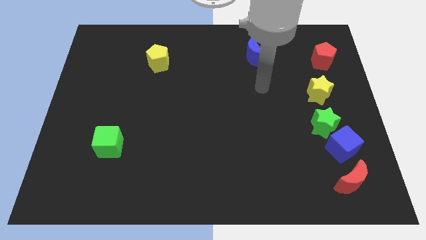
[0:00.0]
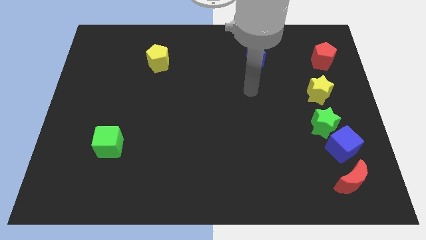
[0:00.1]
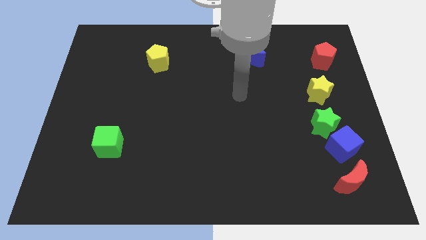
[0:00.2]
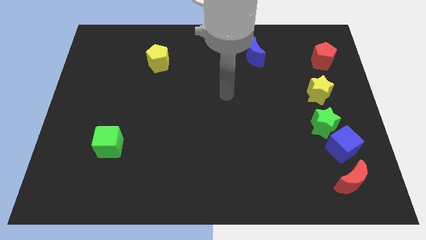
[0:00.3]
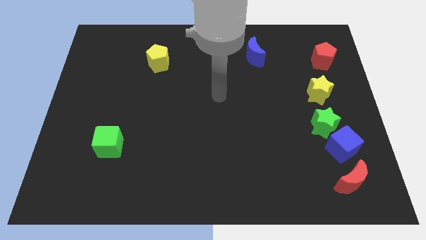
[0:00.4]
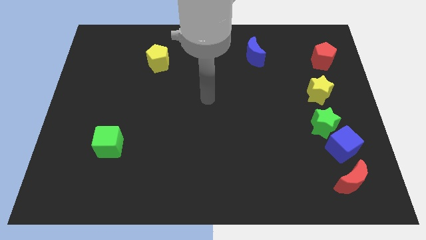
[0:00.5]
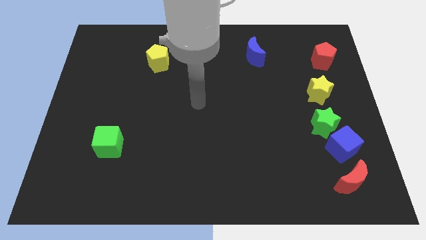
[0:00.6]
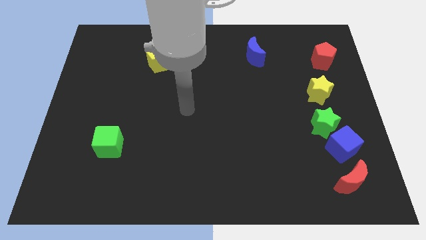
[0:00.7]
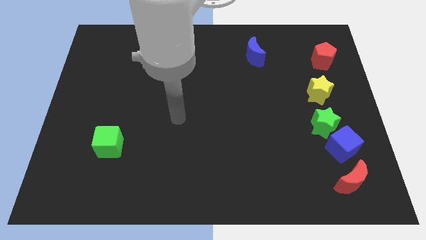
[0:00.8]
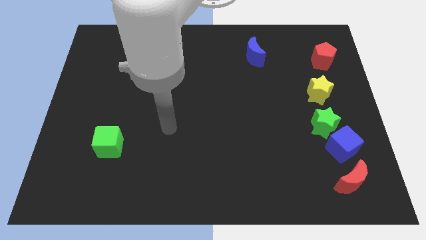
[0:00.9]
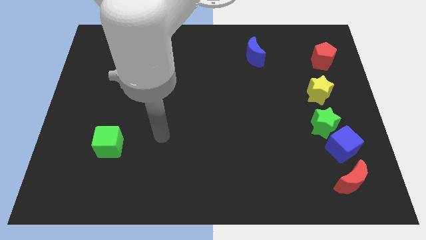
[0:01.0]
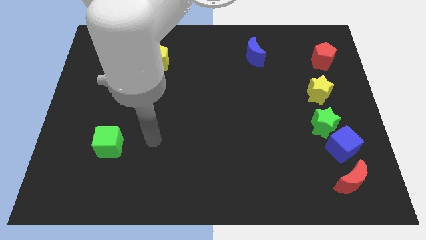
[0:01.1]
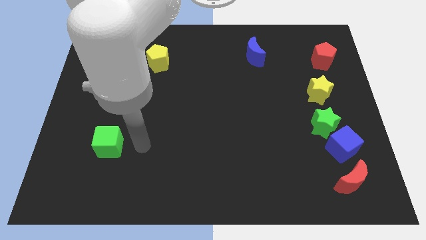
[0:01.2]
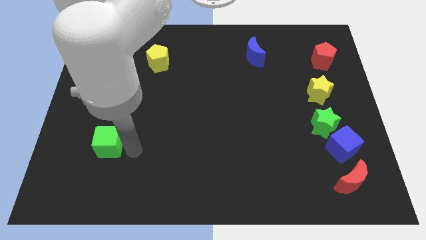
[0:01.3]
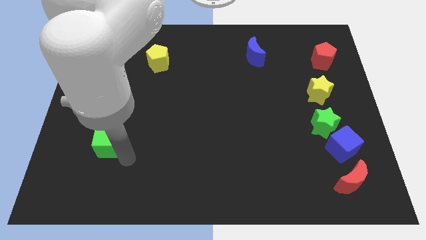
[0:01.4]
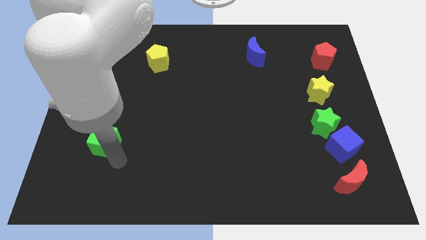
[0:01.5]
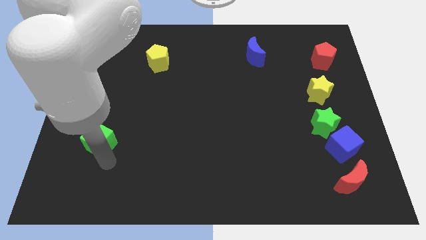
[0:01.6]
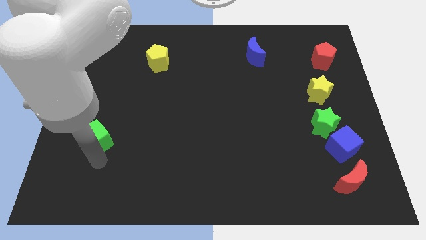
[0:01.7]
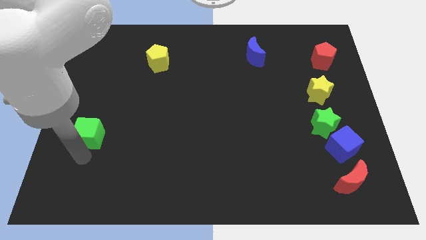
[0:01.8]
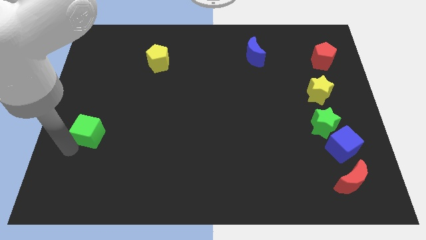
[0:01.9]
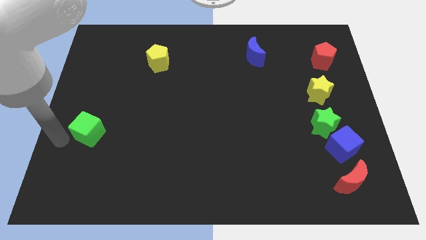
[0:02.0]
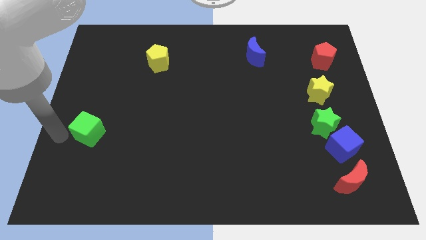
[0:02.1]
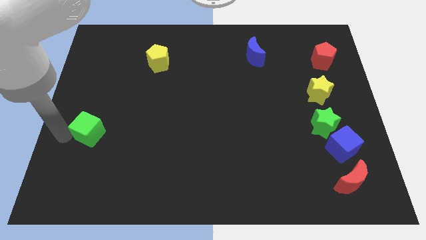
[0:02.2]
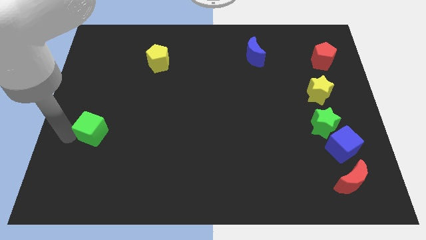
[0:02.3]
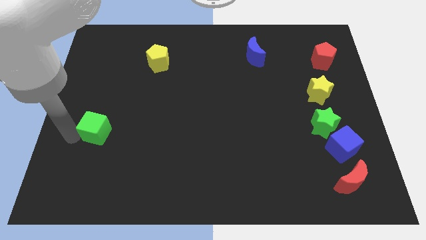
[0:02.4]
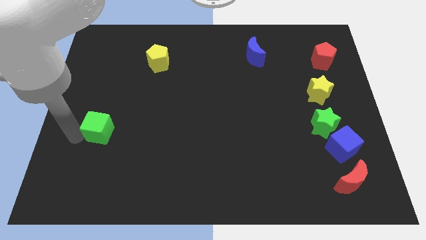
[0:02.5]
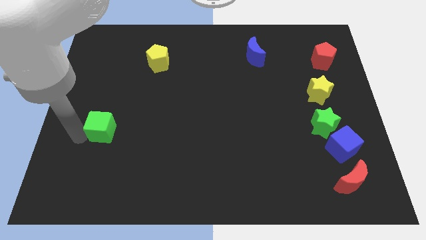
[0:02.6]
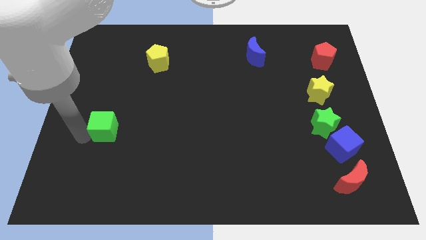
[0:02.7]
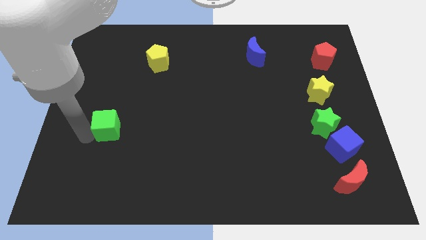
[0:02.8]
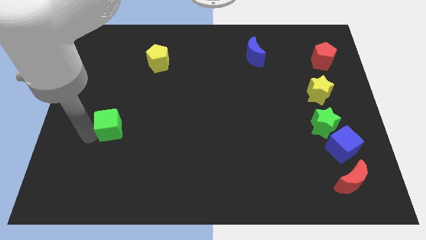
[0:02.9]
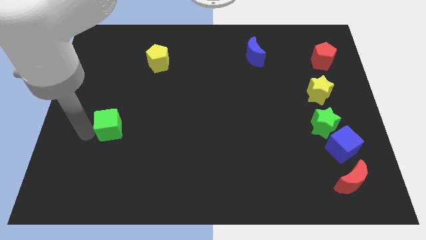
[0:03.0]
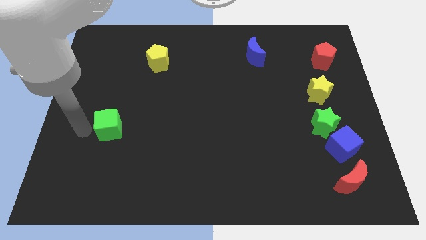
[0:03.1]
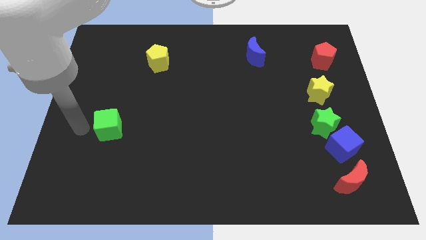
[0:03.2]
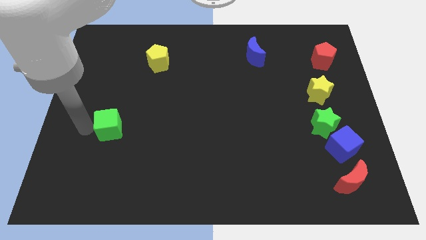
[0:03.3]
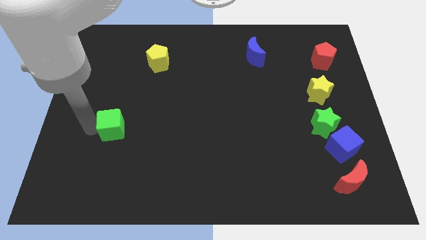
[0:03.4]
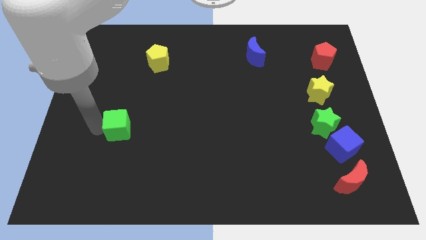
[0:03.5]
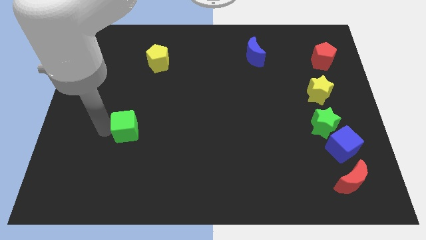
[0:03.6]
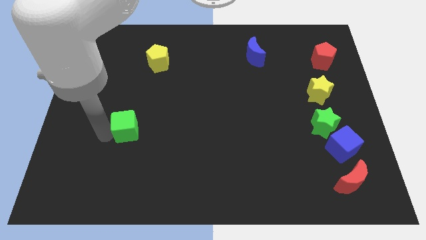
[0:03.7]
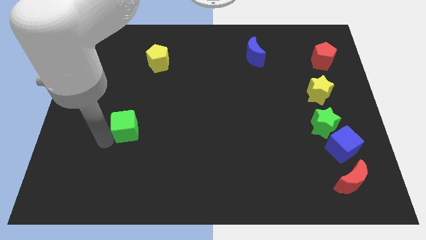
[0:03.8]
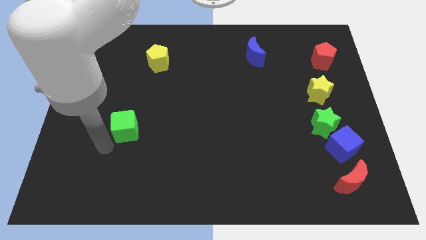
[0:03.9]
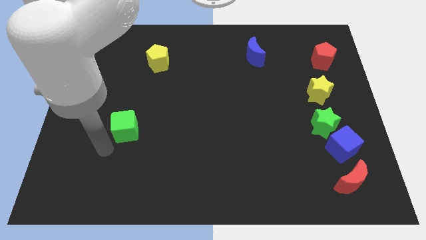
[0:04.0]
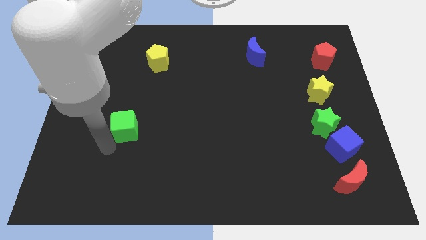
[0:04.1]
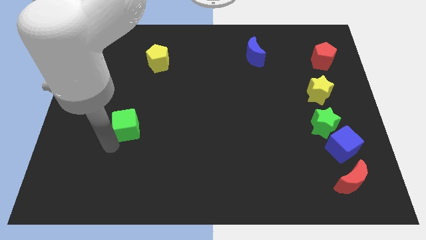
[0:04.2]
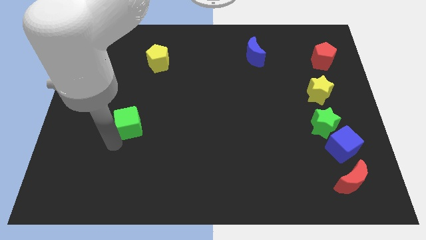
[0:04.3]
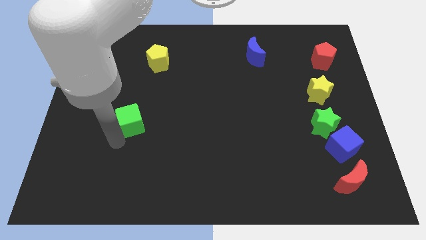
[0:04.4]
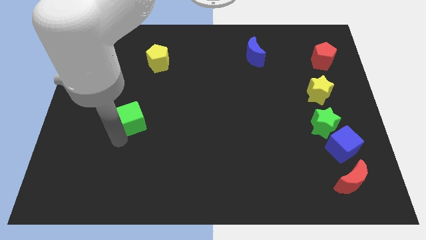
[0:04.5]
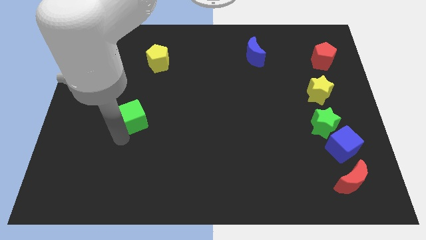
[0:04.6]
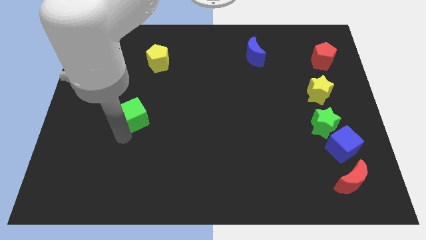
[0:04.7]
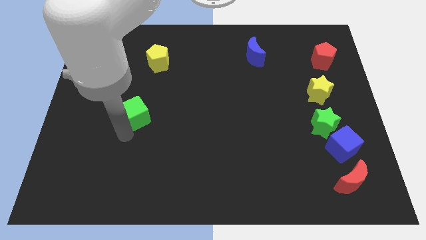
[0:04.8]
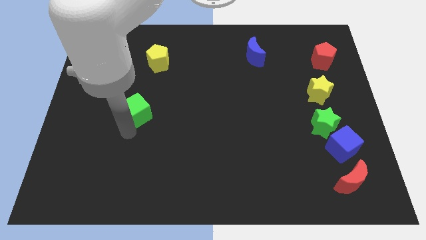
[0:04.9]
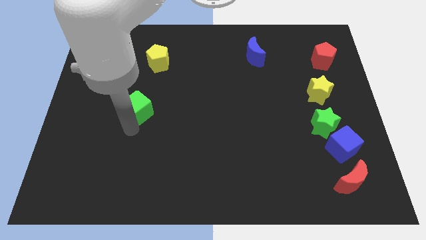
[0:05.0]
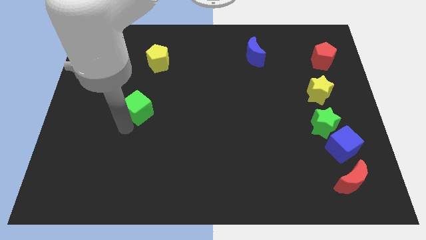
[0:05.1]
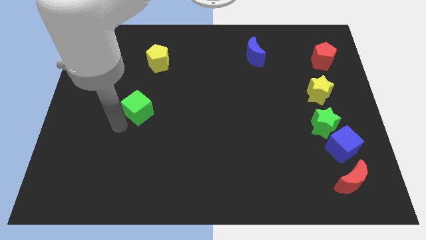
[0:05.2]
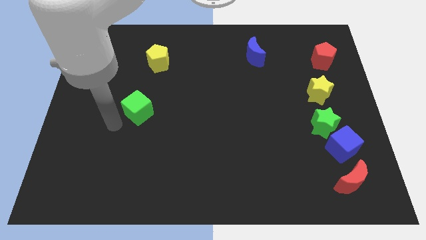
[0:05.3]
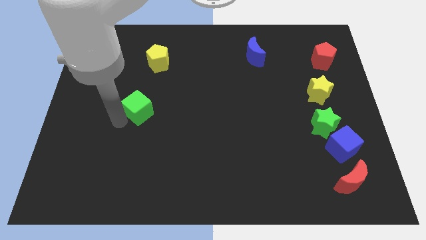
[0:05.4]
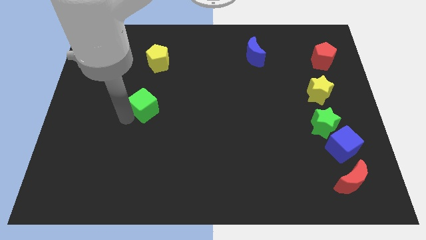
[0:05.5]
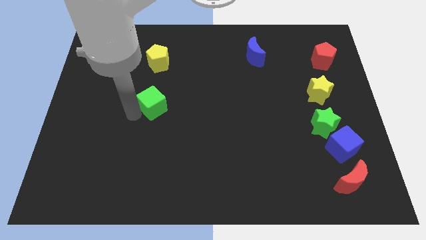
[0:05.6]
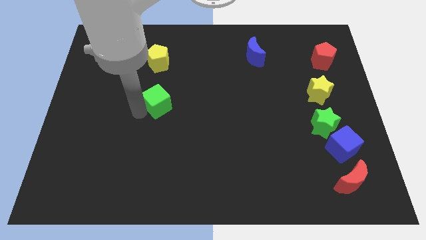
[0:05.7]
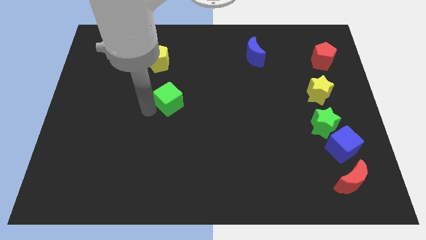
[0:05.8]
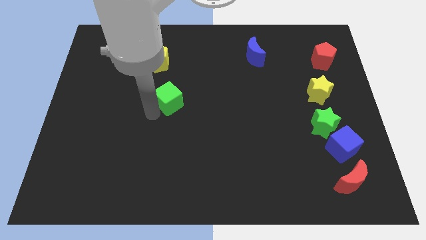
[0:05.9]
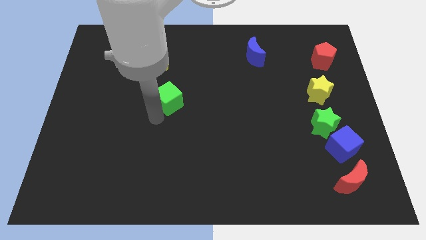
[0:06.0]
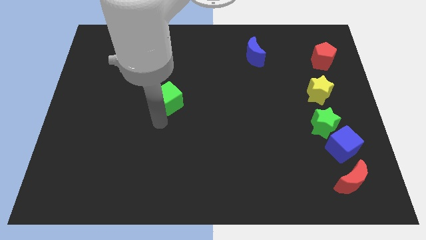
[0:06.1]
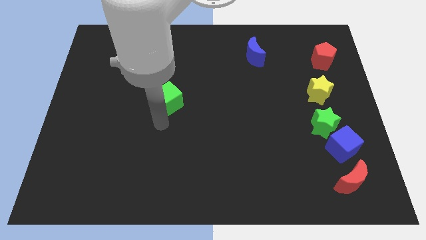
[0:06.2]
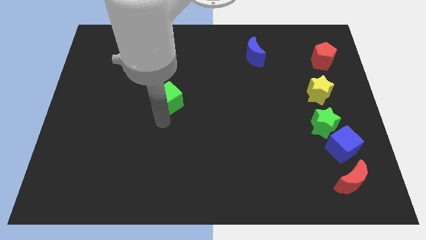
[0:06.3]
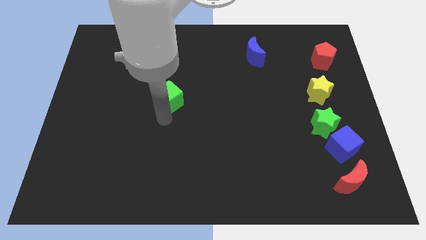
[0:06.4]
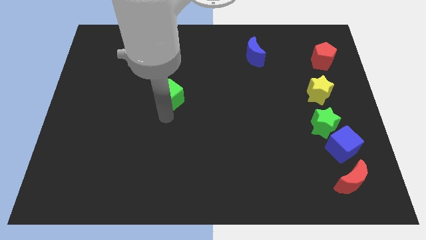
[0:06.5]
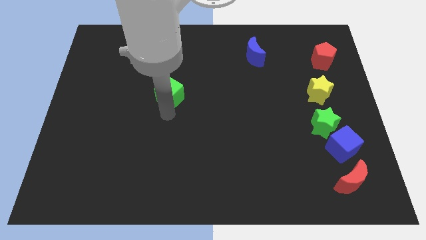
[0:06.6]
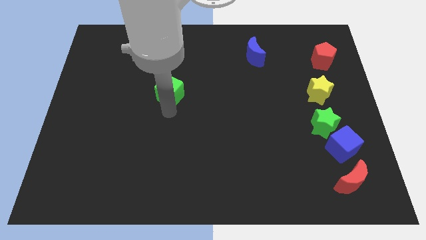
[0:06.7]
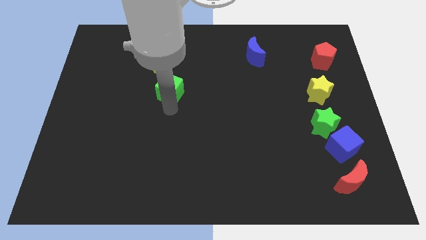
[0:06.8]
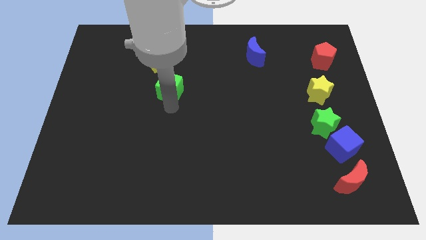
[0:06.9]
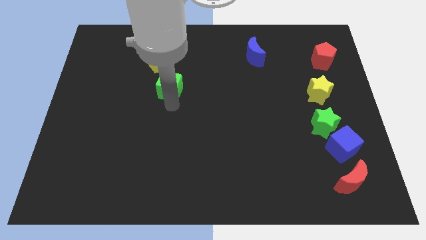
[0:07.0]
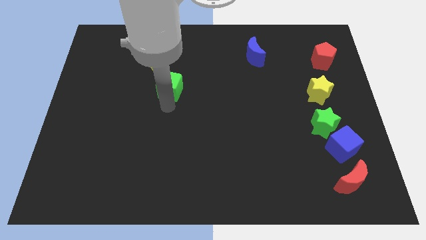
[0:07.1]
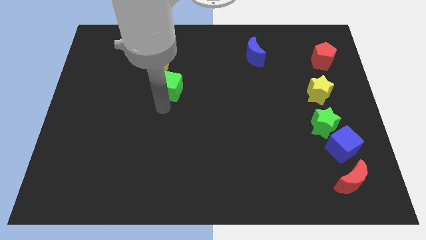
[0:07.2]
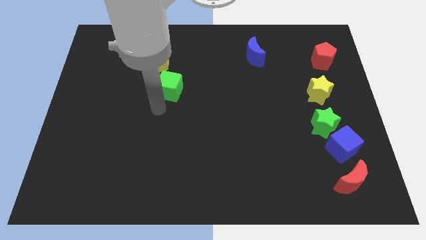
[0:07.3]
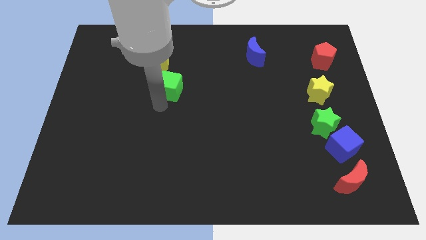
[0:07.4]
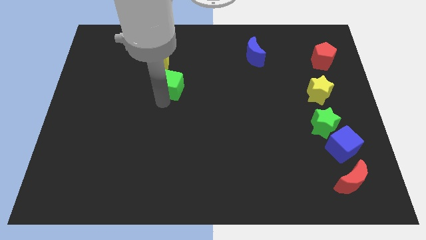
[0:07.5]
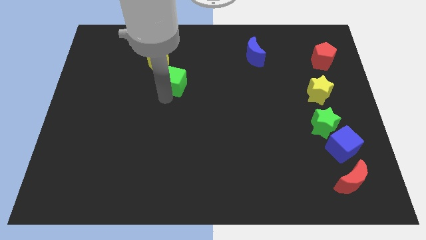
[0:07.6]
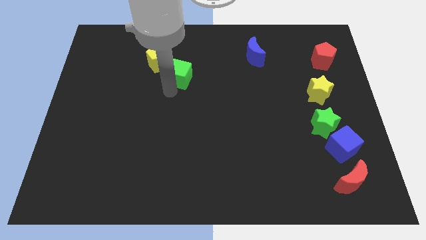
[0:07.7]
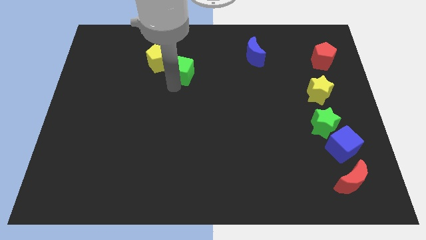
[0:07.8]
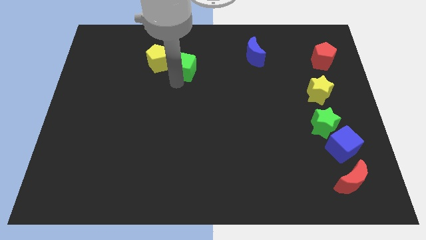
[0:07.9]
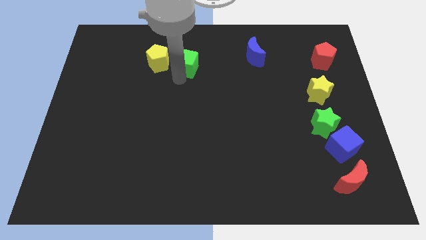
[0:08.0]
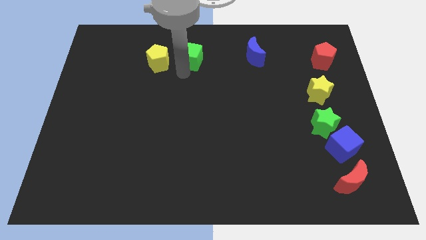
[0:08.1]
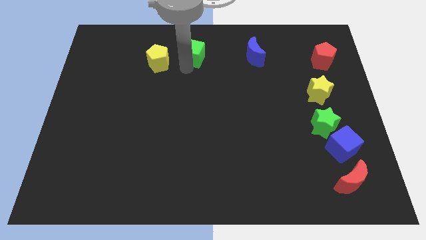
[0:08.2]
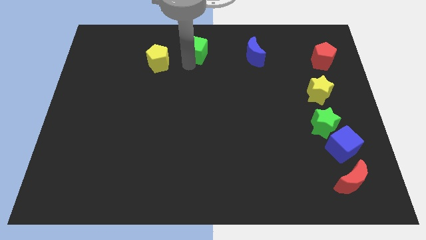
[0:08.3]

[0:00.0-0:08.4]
put the green cube to the top side
